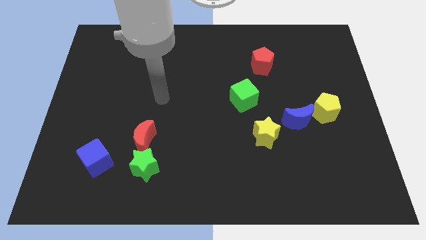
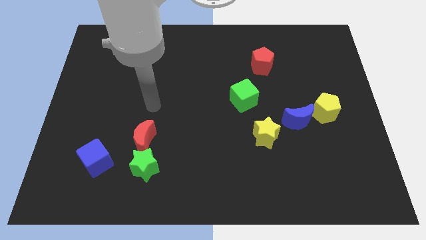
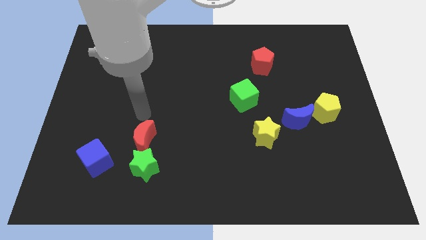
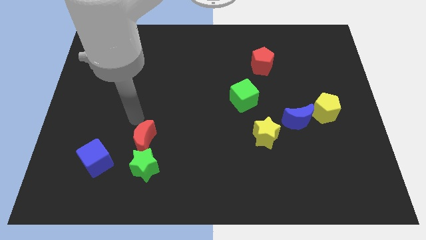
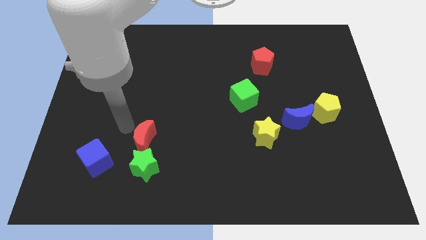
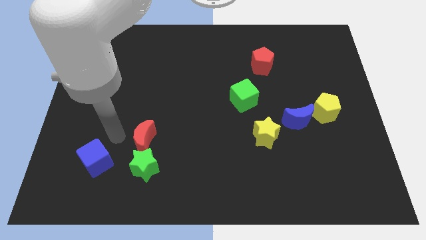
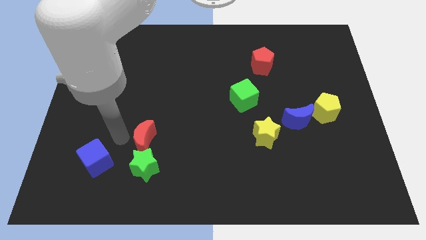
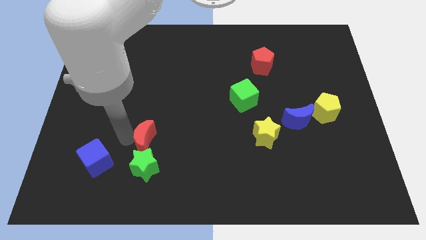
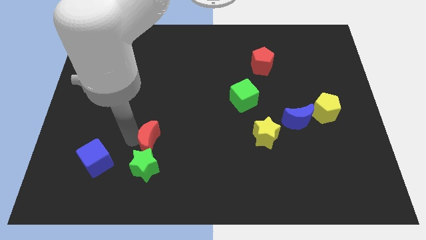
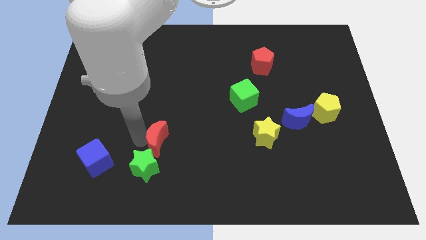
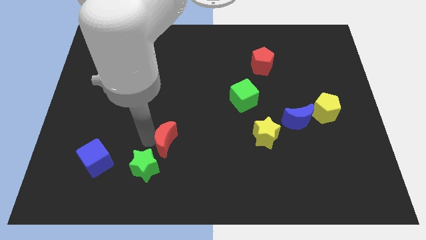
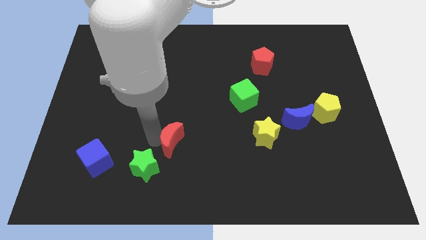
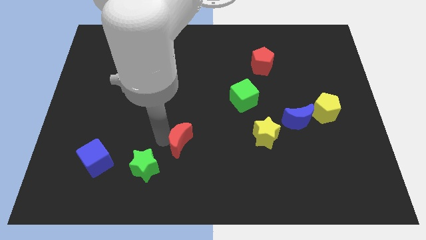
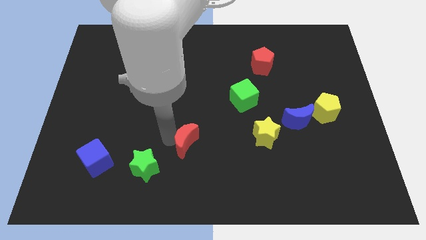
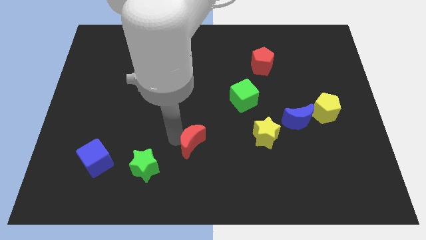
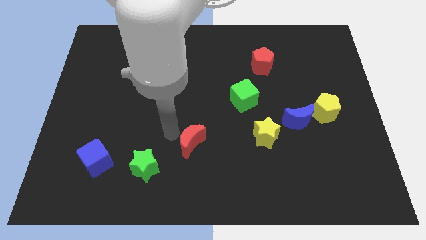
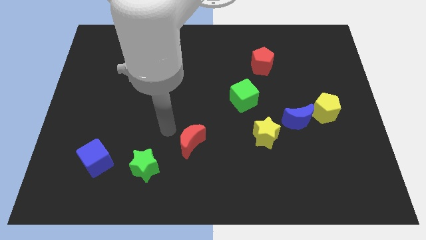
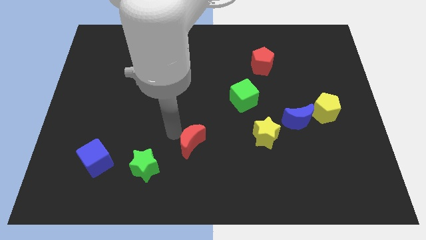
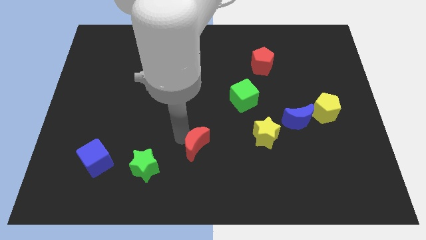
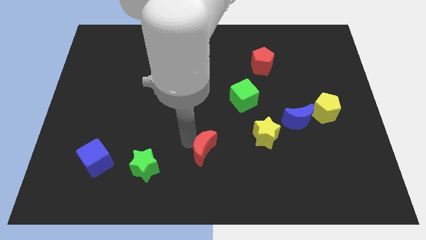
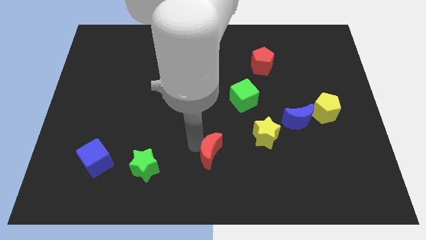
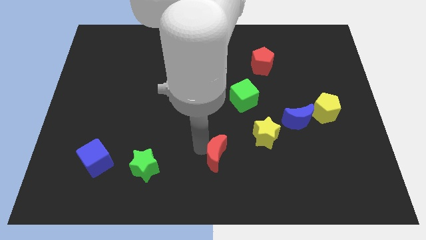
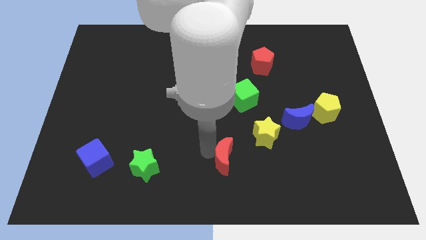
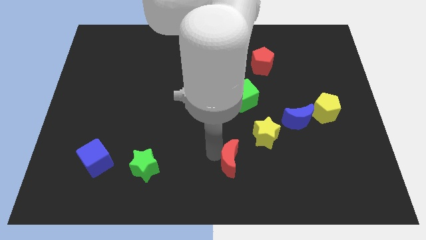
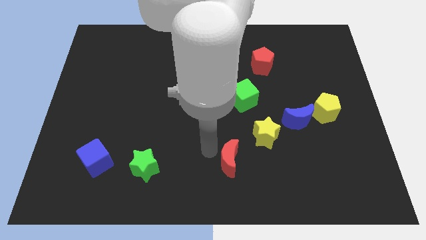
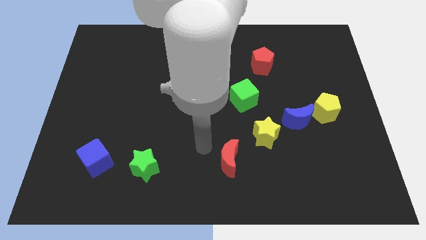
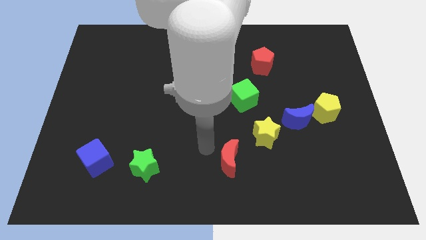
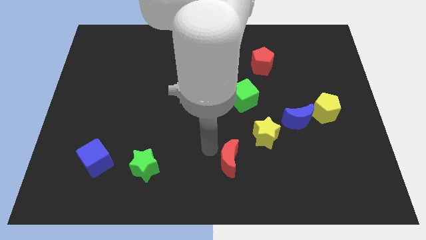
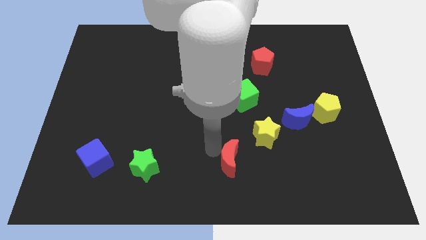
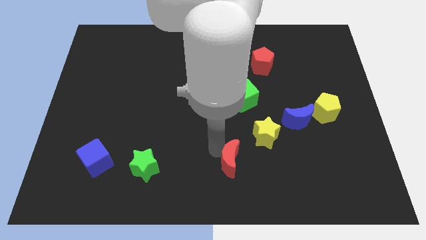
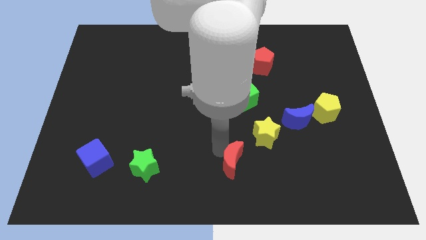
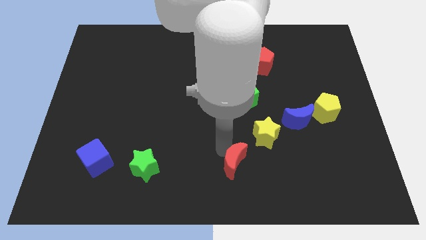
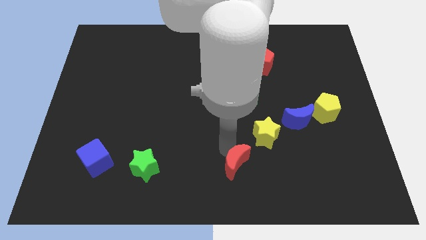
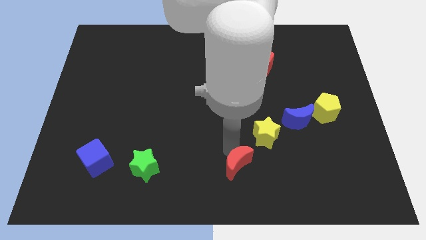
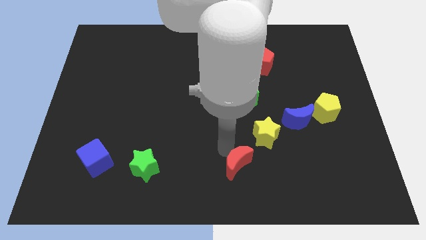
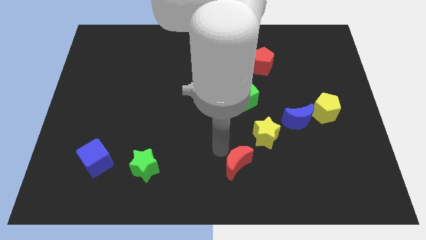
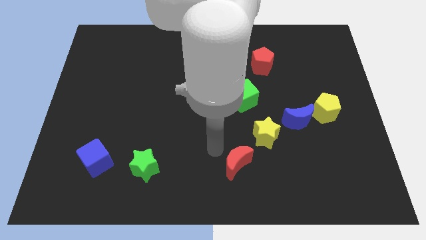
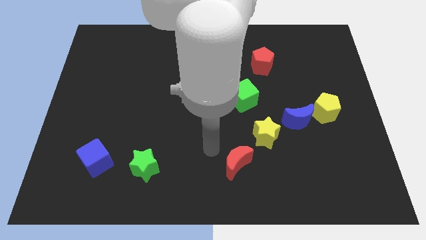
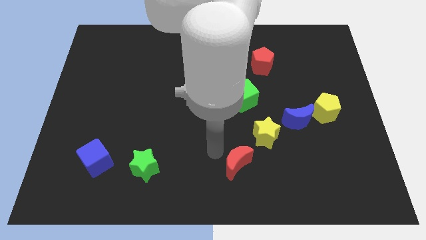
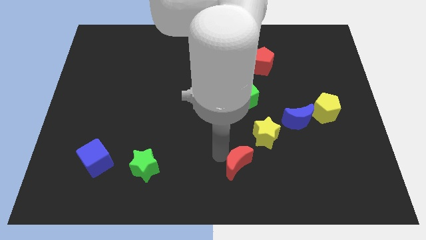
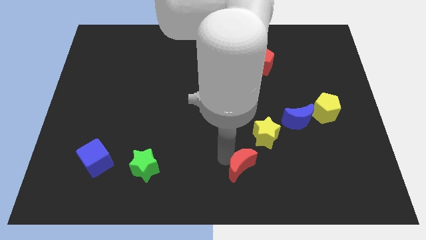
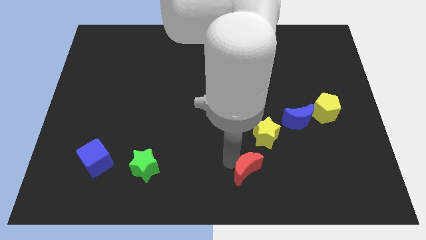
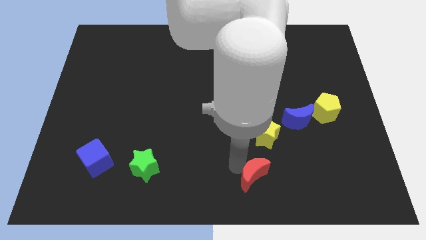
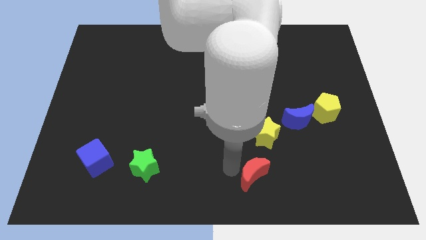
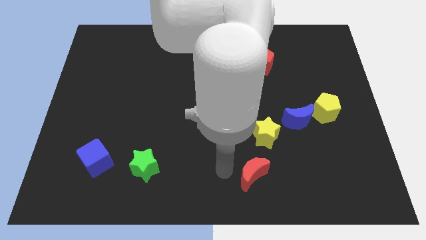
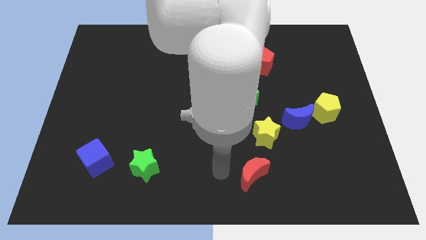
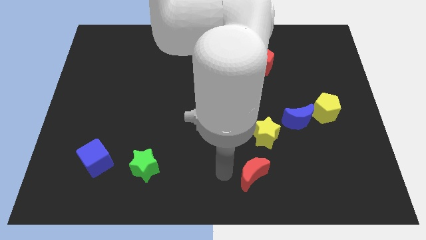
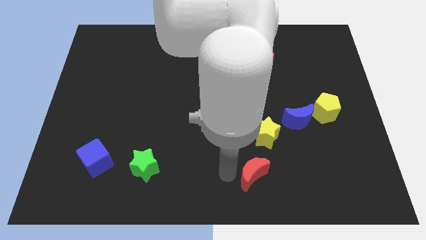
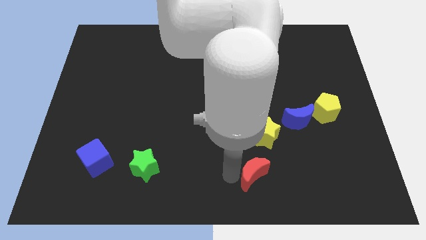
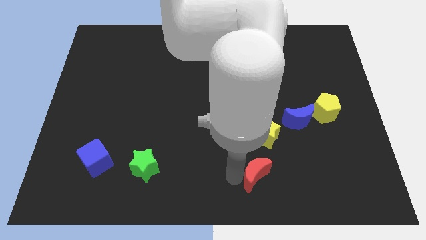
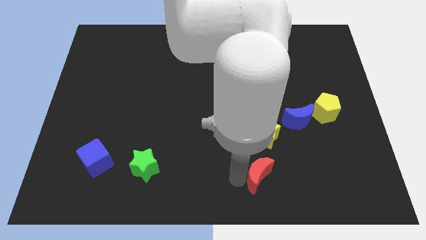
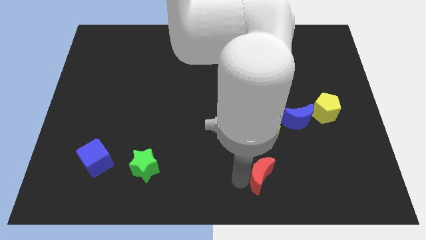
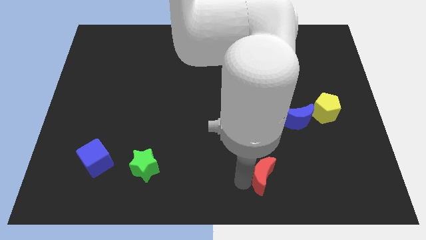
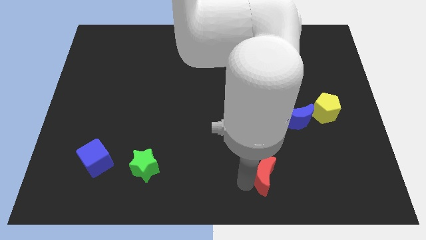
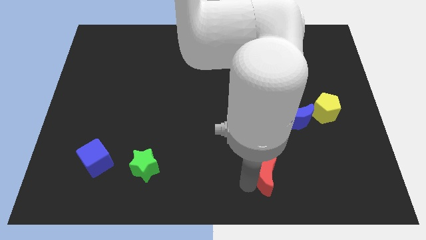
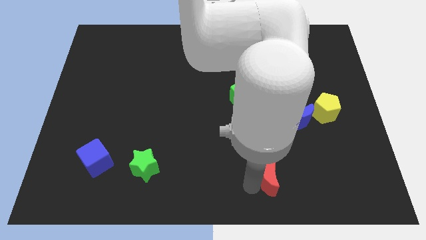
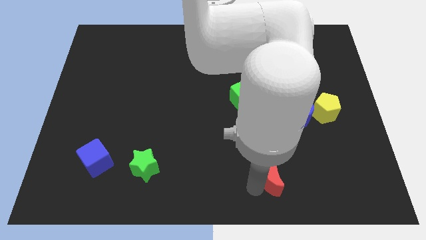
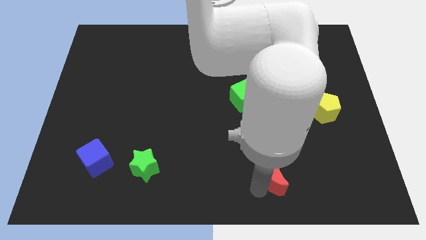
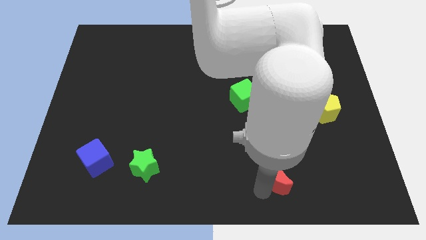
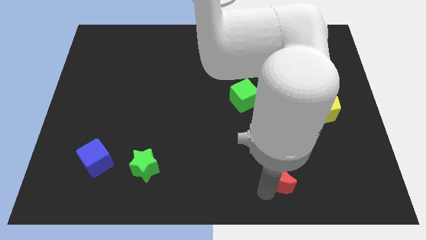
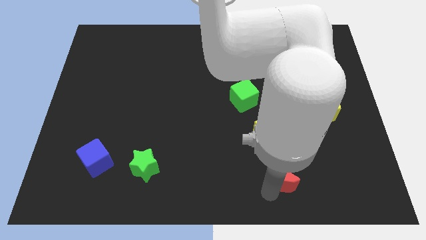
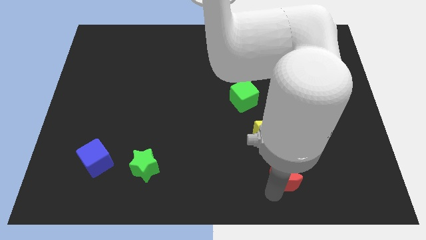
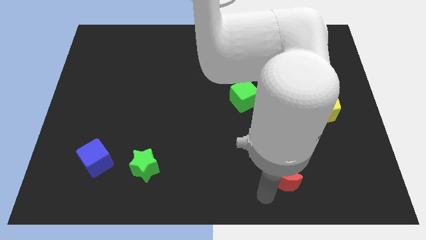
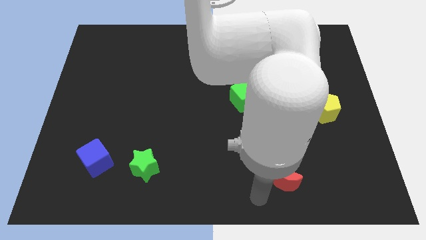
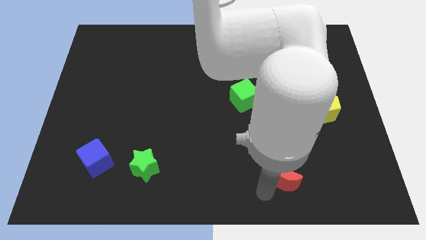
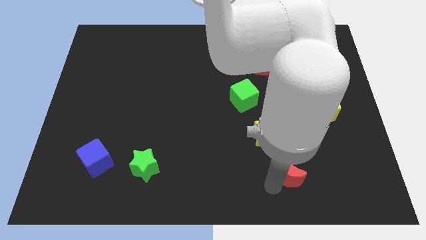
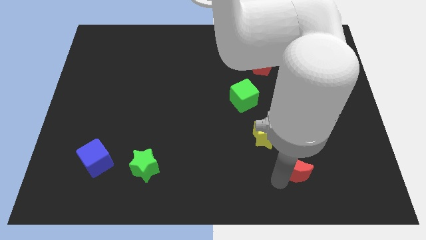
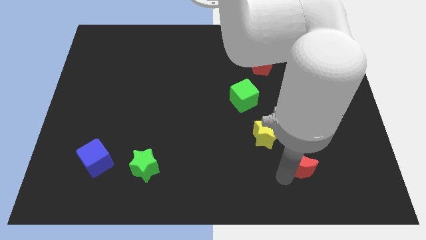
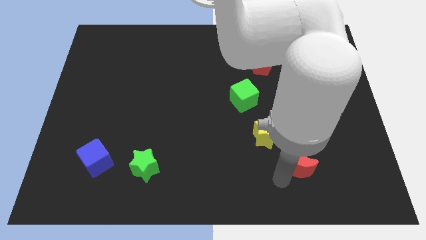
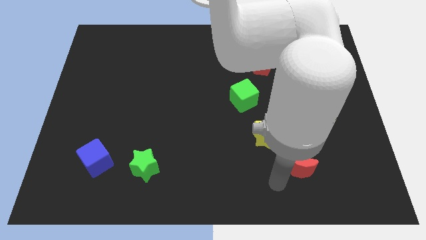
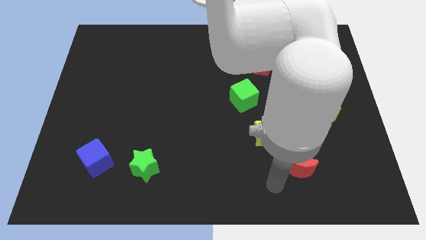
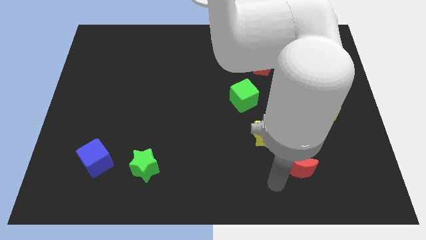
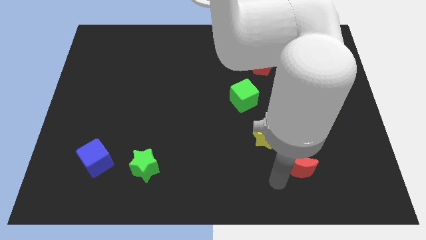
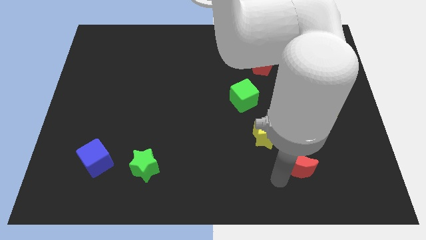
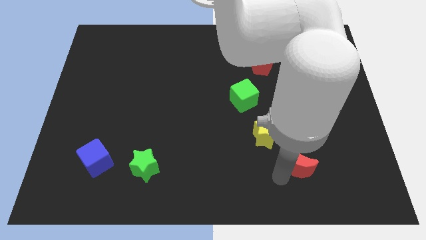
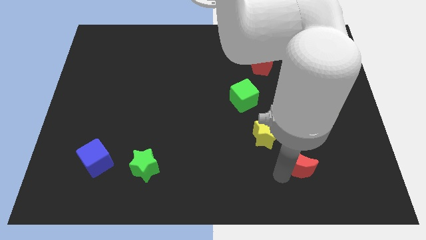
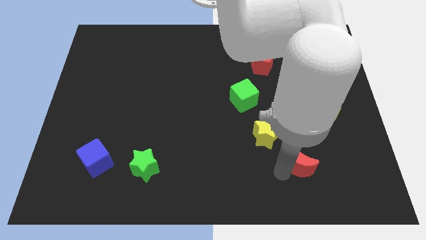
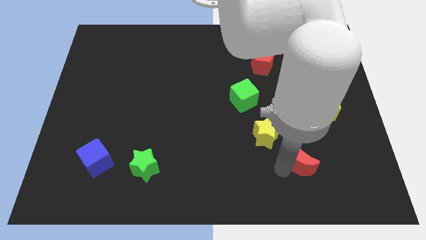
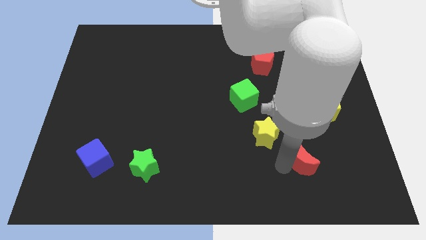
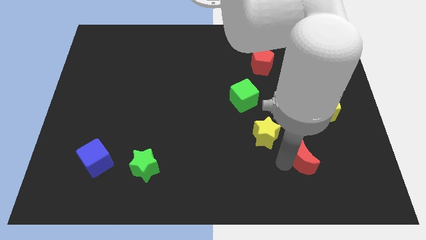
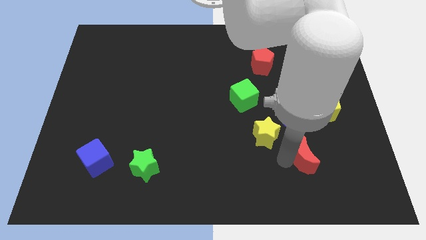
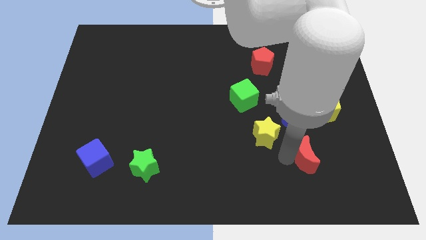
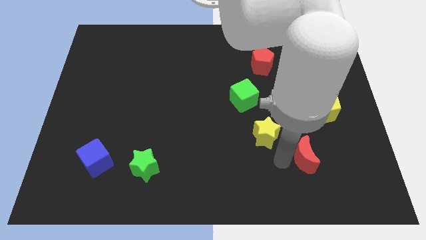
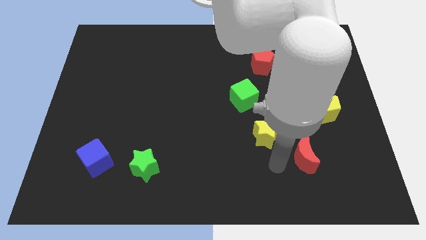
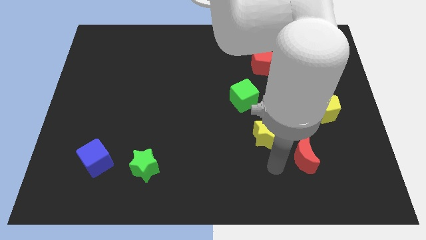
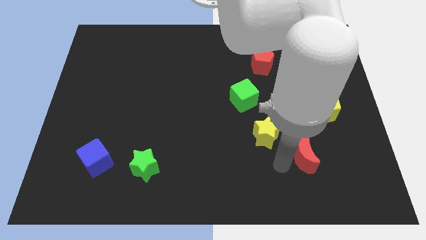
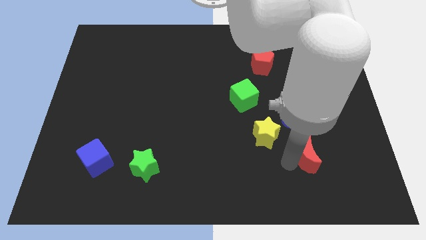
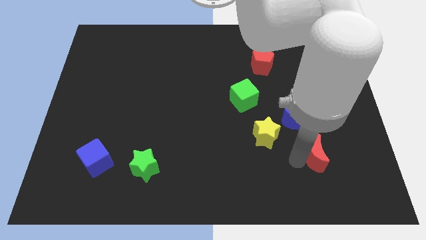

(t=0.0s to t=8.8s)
put the red moon to the bottom side of the yellow pentagon
